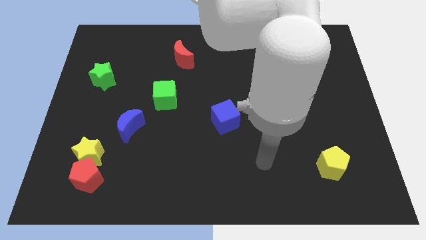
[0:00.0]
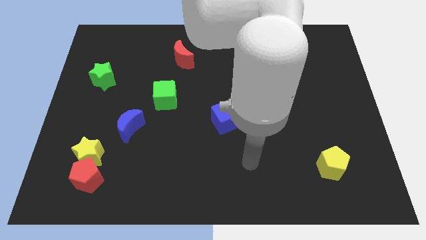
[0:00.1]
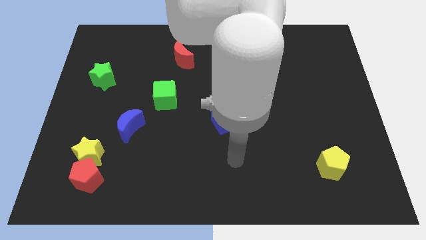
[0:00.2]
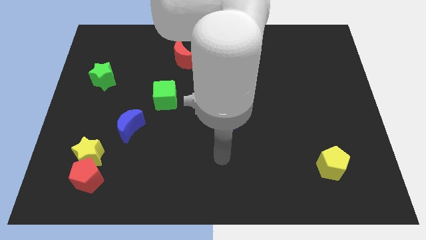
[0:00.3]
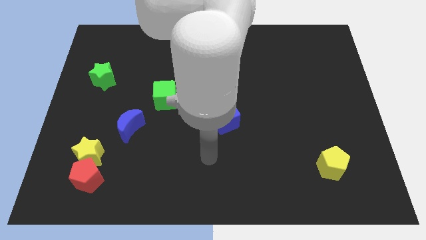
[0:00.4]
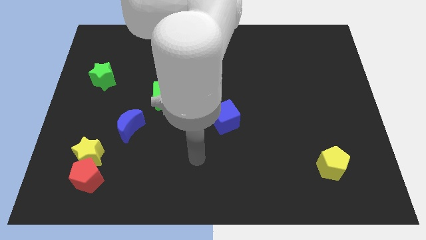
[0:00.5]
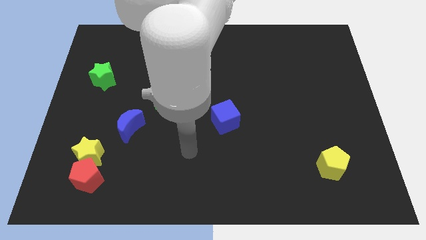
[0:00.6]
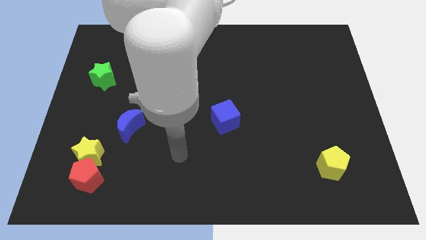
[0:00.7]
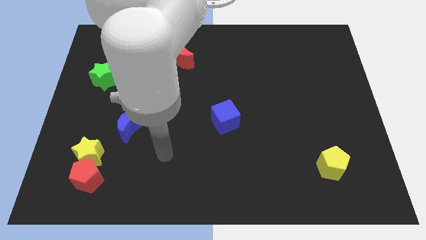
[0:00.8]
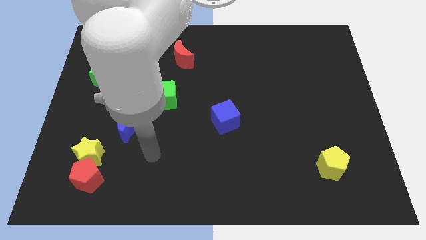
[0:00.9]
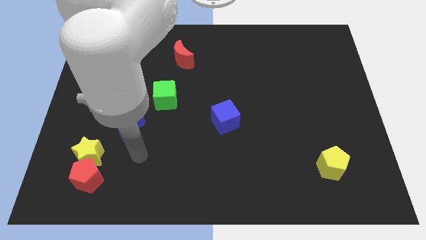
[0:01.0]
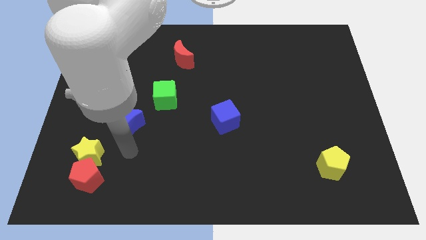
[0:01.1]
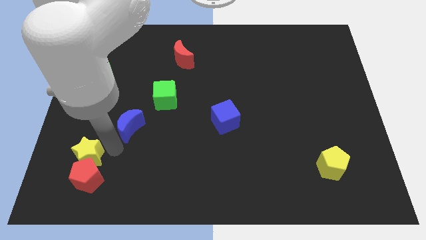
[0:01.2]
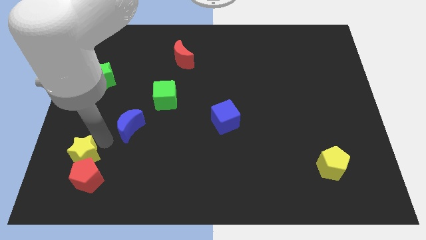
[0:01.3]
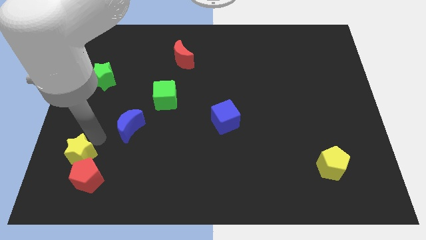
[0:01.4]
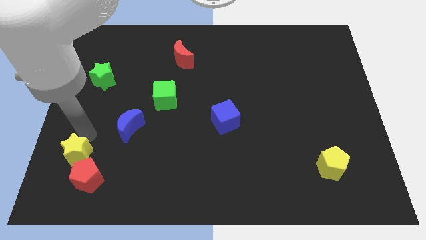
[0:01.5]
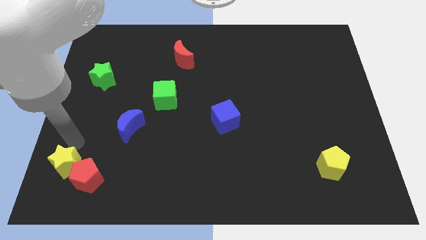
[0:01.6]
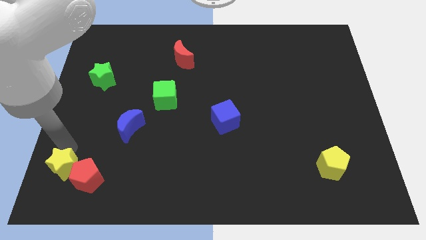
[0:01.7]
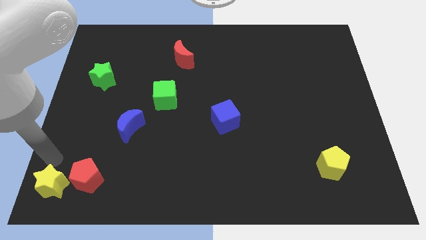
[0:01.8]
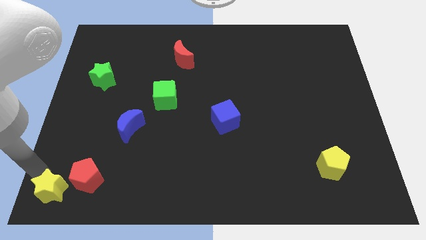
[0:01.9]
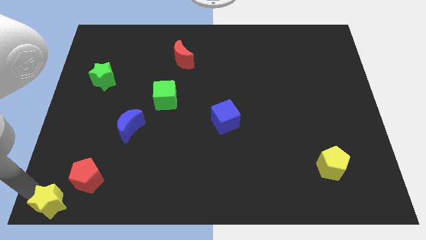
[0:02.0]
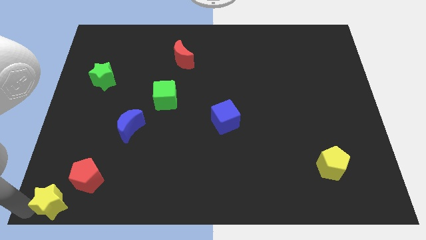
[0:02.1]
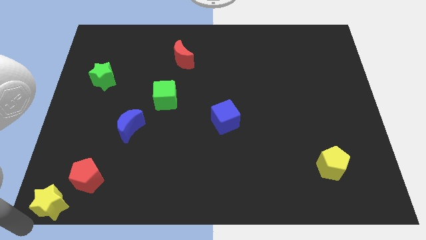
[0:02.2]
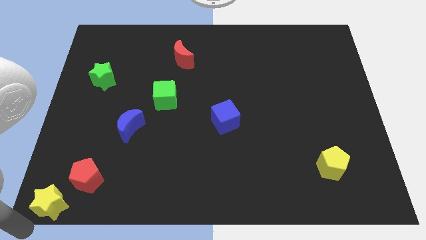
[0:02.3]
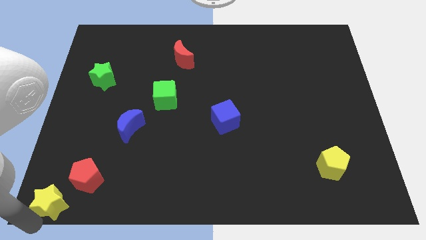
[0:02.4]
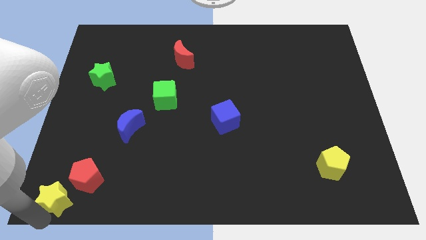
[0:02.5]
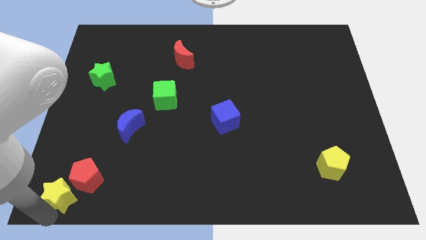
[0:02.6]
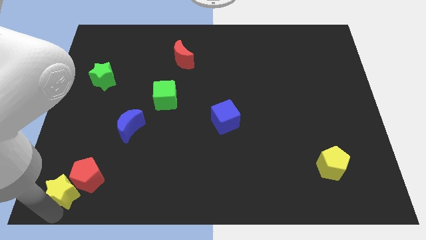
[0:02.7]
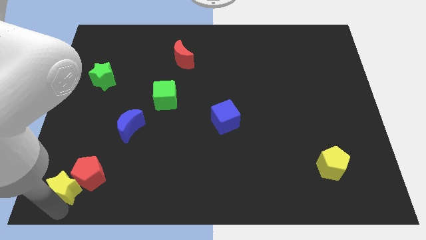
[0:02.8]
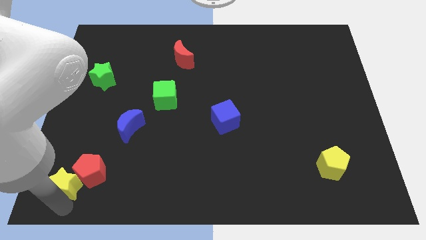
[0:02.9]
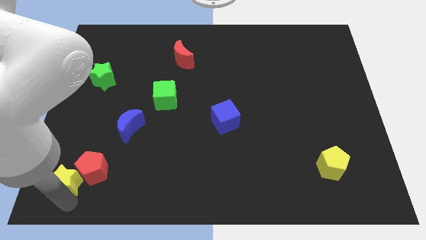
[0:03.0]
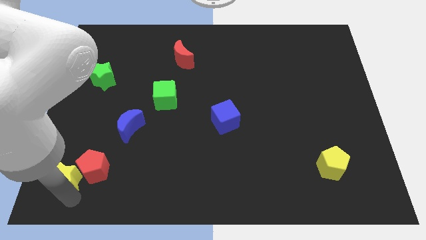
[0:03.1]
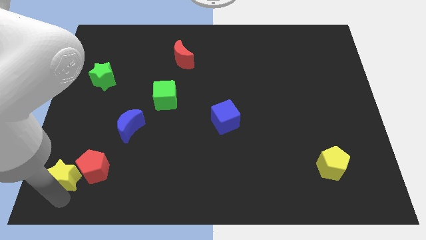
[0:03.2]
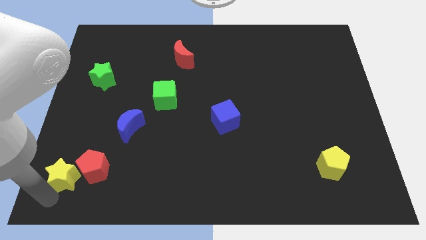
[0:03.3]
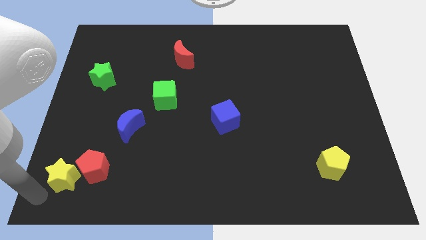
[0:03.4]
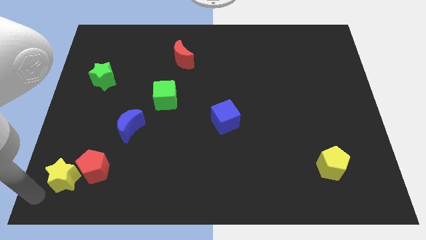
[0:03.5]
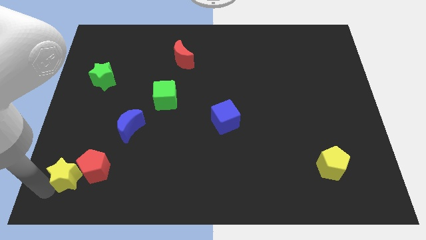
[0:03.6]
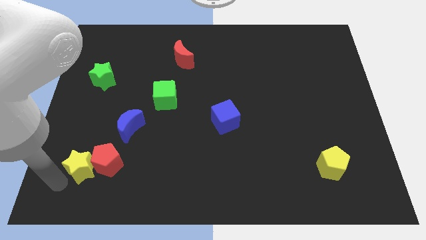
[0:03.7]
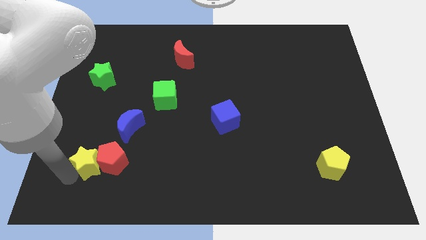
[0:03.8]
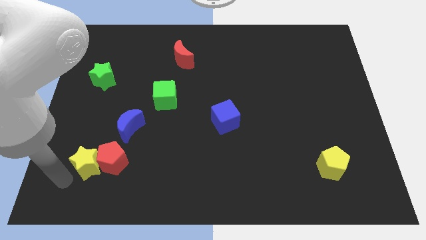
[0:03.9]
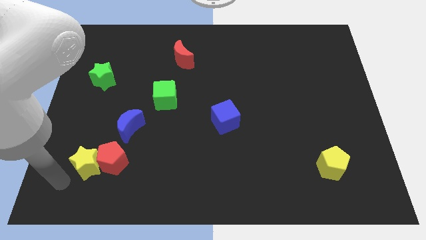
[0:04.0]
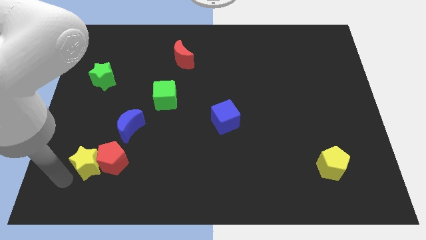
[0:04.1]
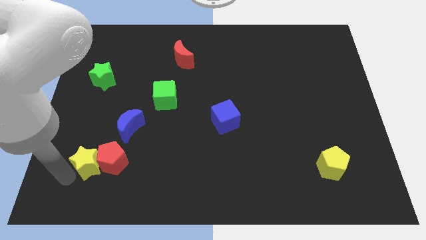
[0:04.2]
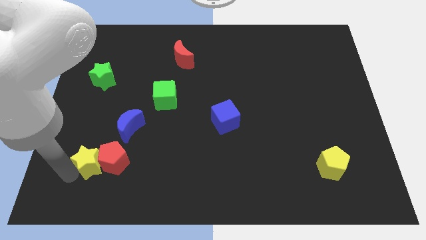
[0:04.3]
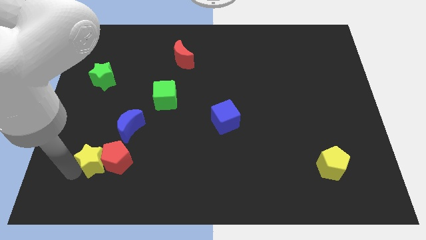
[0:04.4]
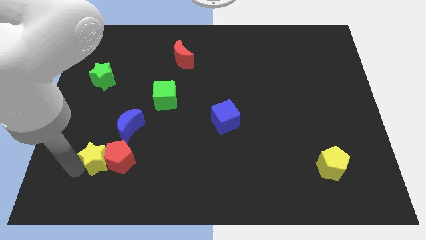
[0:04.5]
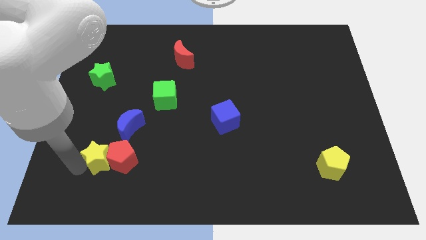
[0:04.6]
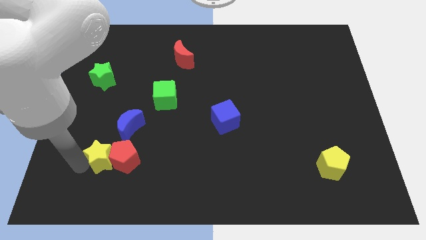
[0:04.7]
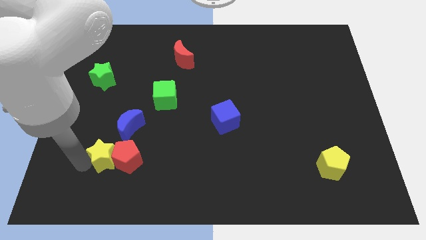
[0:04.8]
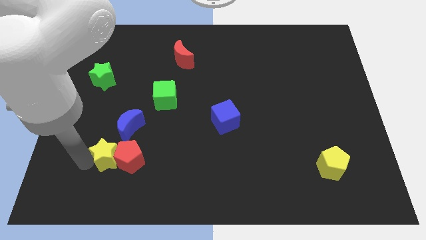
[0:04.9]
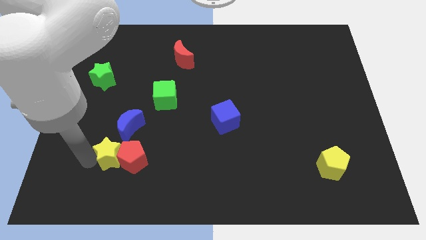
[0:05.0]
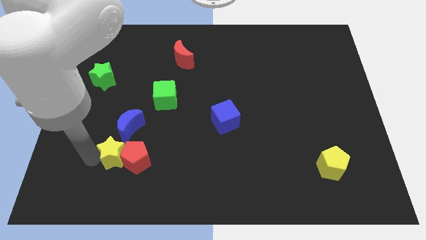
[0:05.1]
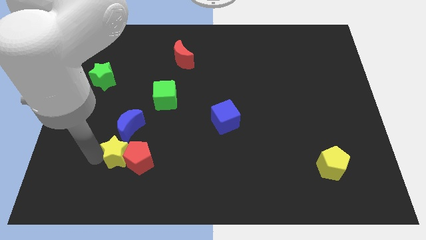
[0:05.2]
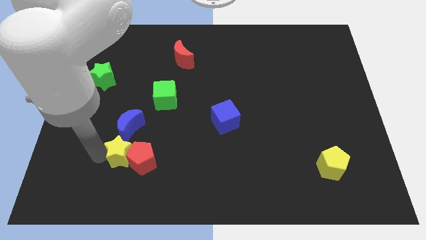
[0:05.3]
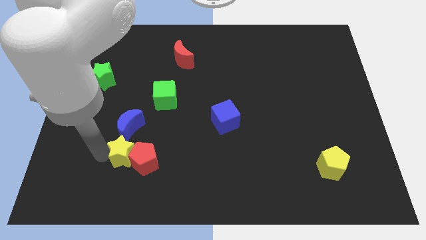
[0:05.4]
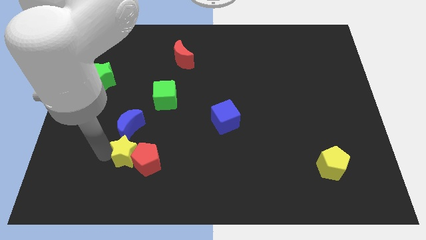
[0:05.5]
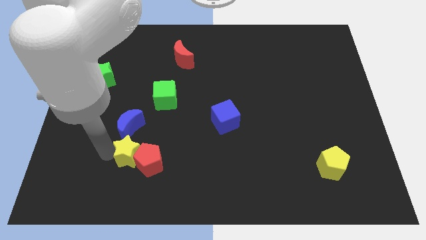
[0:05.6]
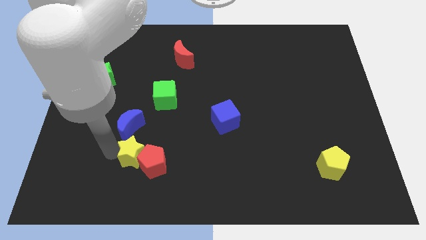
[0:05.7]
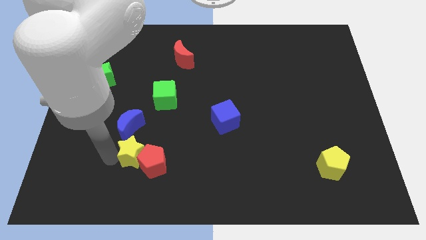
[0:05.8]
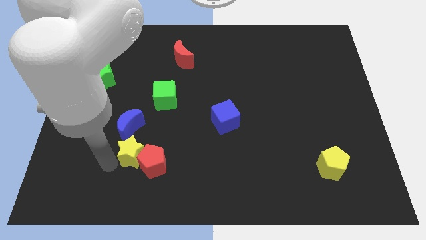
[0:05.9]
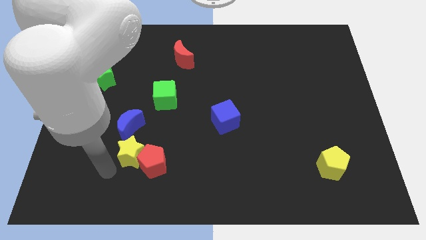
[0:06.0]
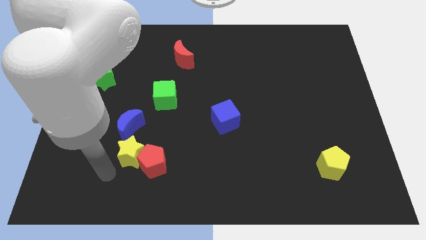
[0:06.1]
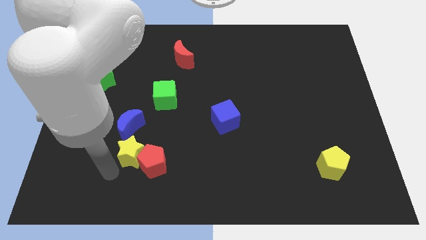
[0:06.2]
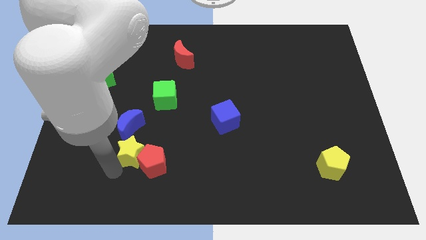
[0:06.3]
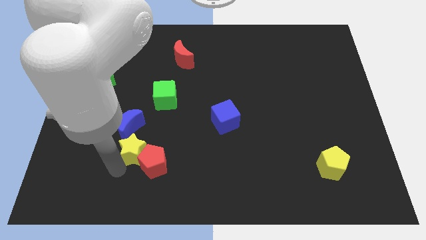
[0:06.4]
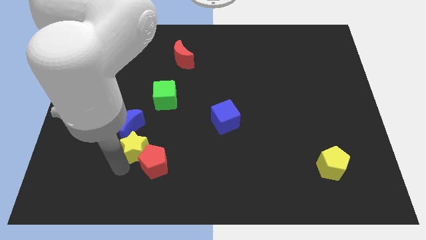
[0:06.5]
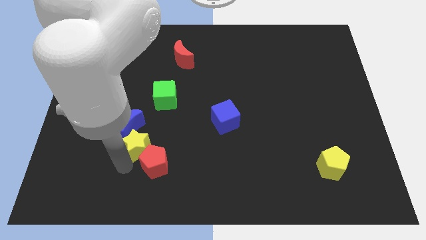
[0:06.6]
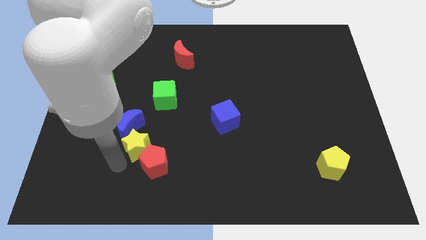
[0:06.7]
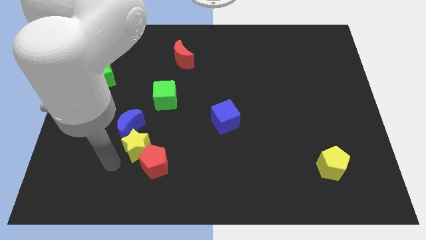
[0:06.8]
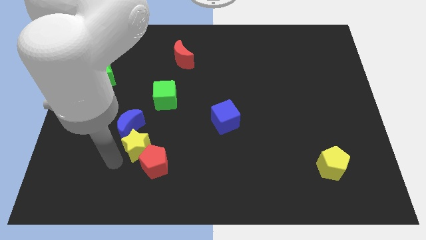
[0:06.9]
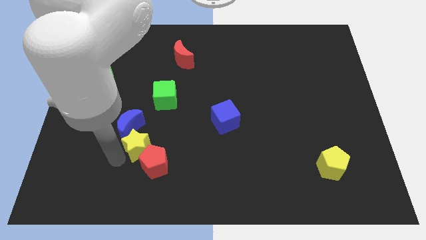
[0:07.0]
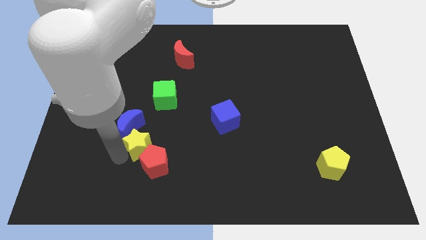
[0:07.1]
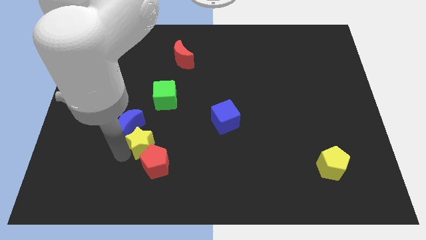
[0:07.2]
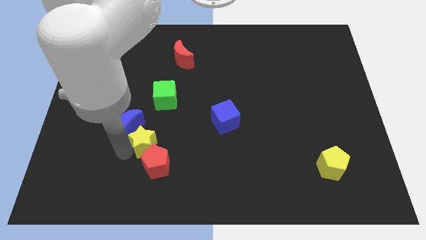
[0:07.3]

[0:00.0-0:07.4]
move the yellow star right of the blue moon

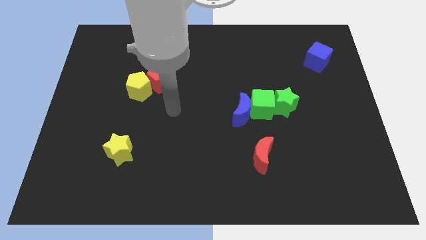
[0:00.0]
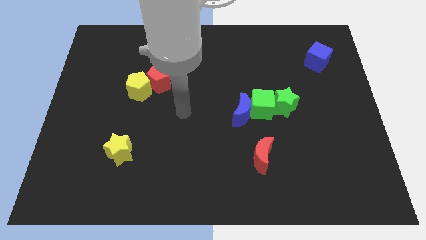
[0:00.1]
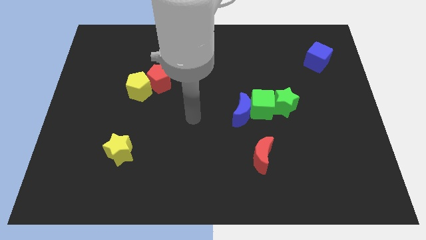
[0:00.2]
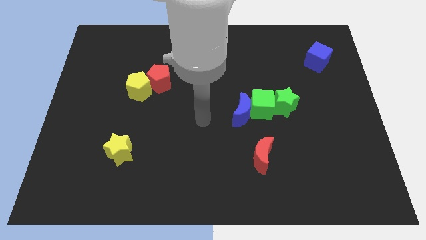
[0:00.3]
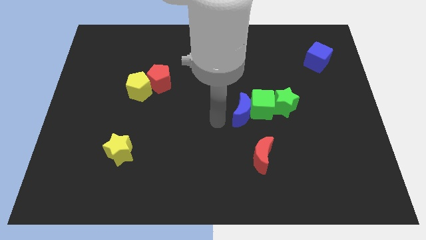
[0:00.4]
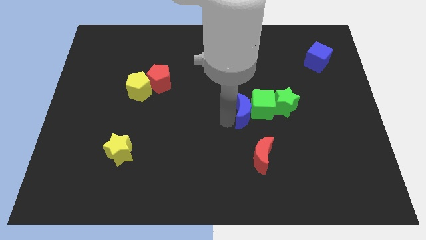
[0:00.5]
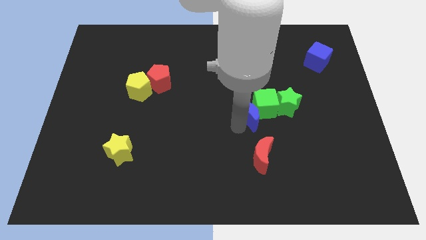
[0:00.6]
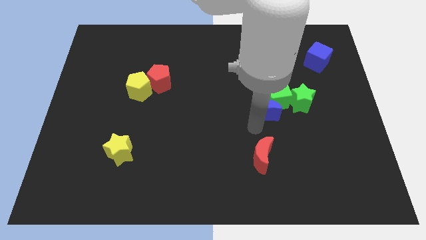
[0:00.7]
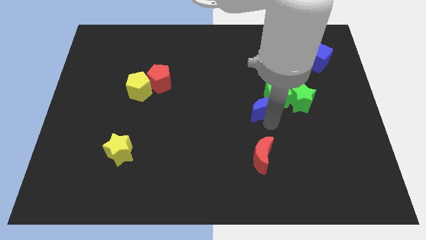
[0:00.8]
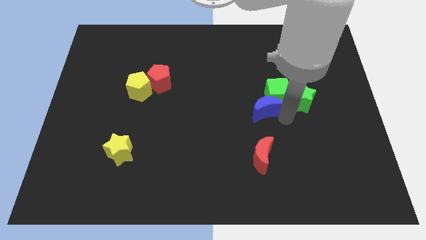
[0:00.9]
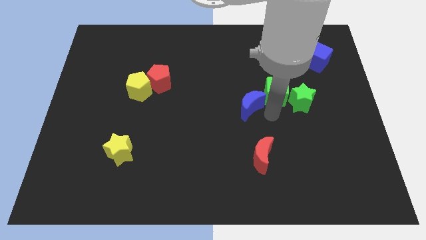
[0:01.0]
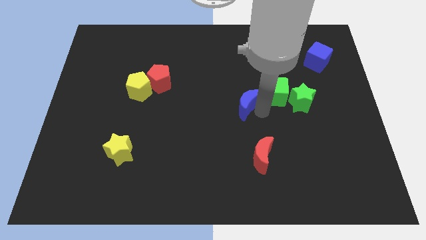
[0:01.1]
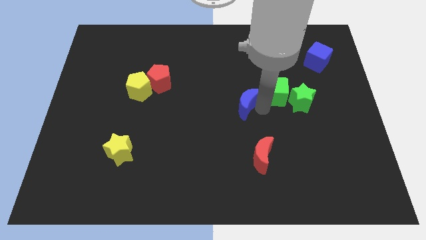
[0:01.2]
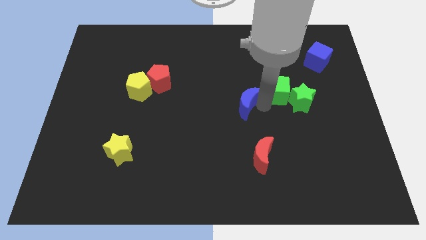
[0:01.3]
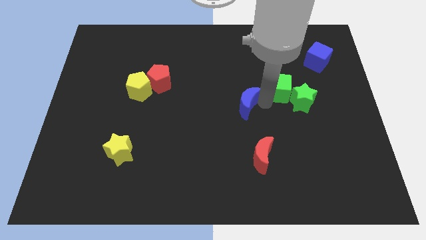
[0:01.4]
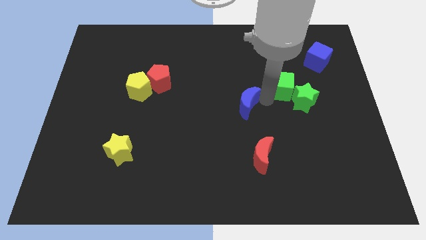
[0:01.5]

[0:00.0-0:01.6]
push the green cube above the green star
